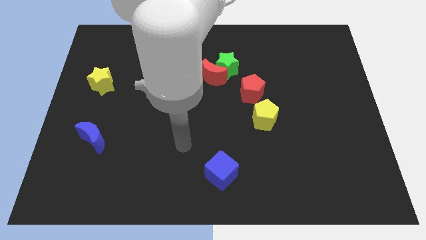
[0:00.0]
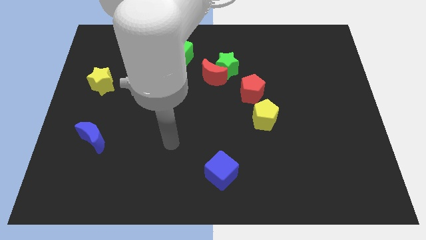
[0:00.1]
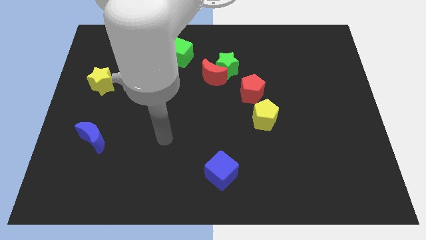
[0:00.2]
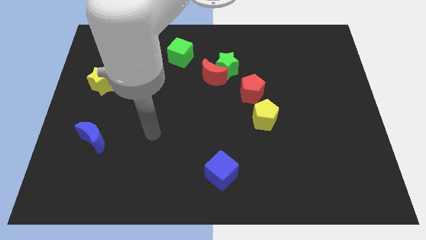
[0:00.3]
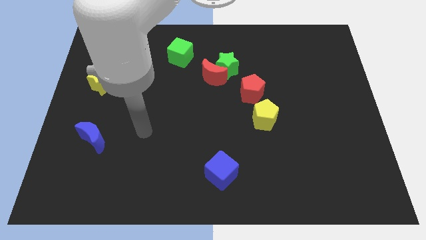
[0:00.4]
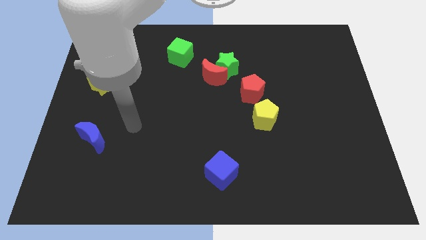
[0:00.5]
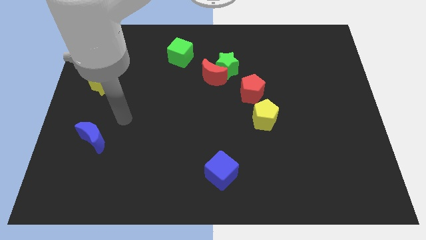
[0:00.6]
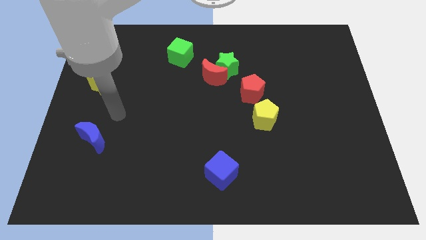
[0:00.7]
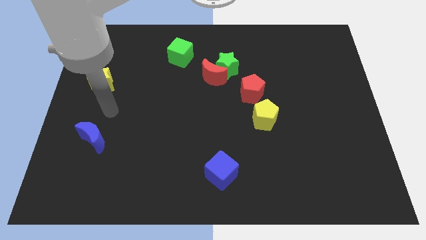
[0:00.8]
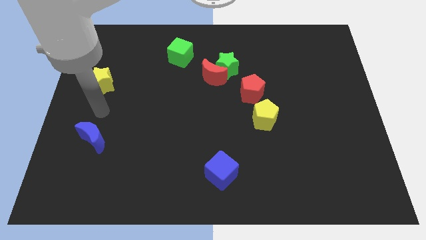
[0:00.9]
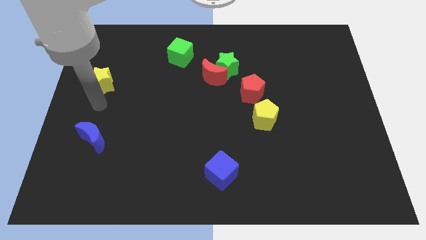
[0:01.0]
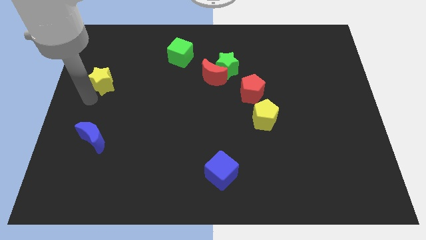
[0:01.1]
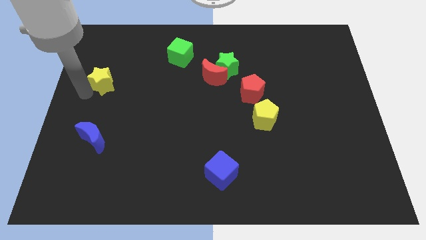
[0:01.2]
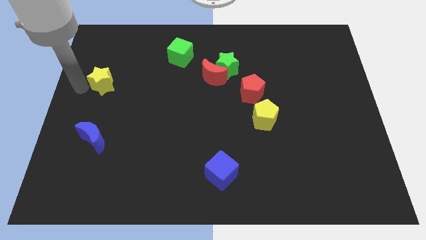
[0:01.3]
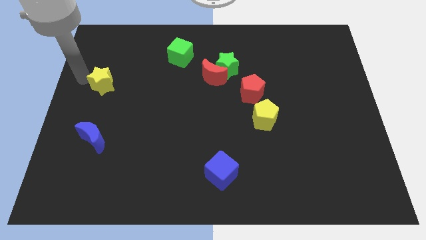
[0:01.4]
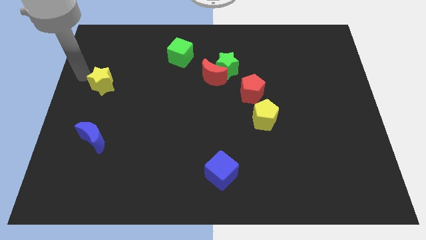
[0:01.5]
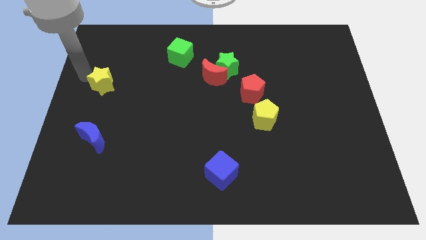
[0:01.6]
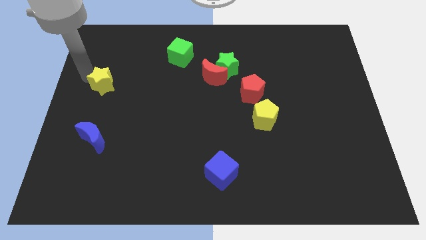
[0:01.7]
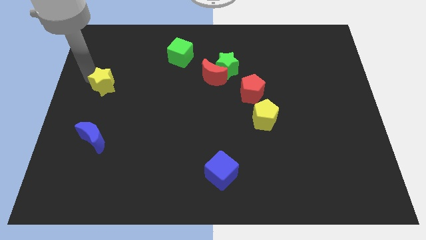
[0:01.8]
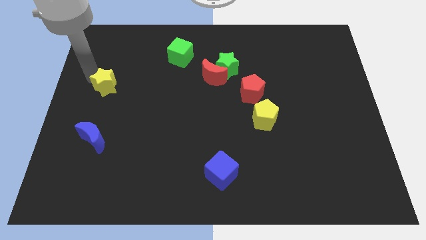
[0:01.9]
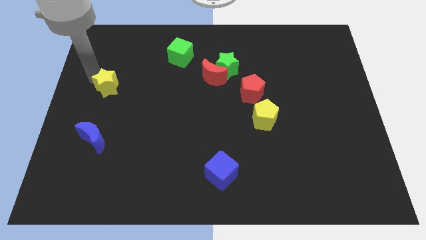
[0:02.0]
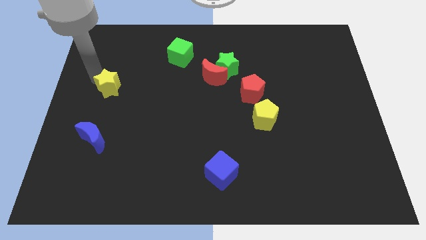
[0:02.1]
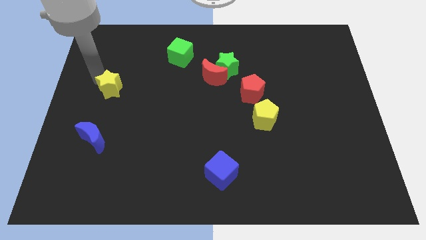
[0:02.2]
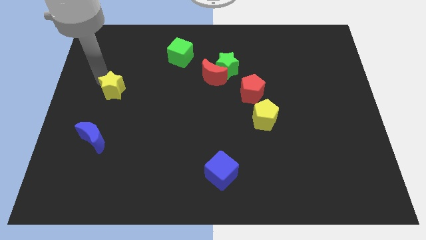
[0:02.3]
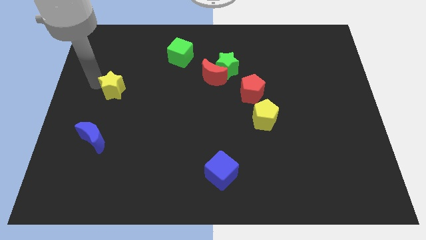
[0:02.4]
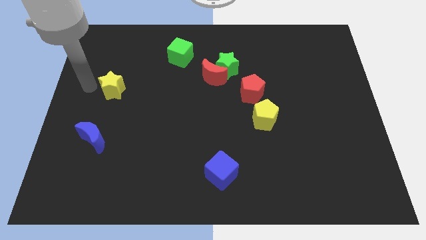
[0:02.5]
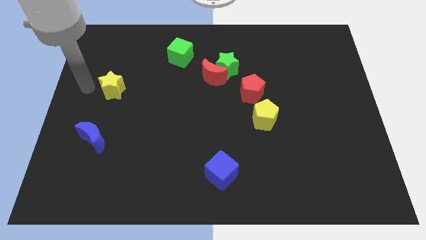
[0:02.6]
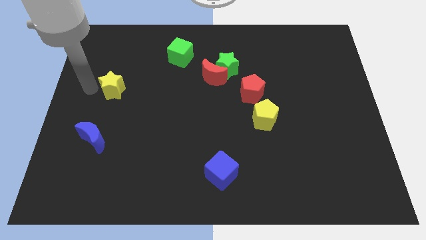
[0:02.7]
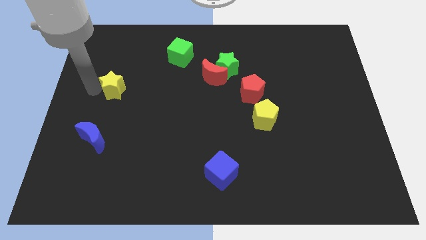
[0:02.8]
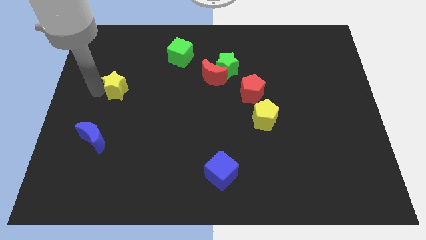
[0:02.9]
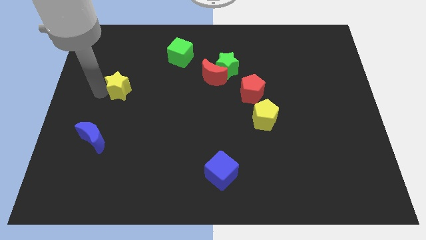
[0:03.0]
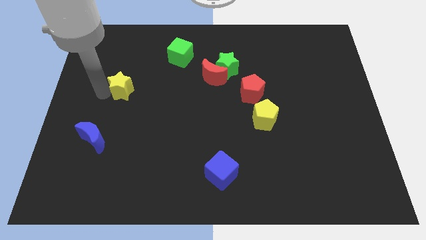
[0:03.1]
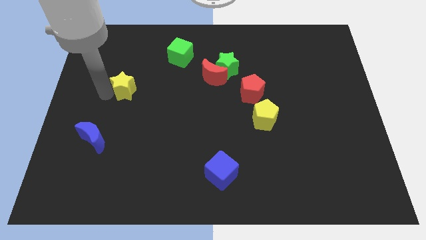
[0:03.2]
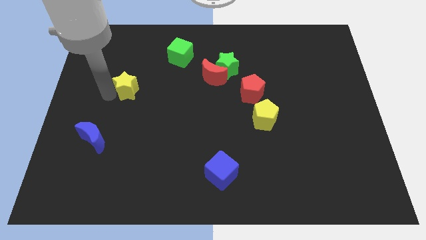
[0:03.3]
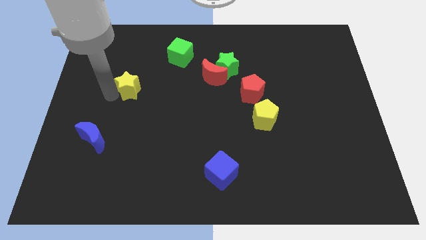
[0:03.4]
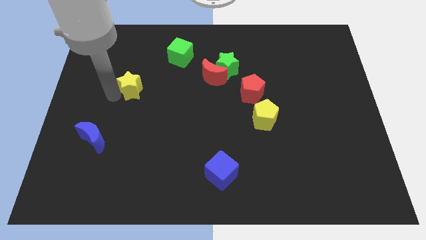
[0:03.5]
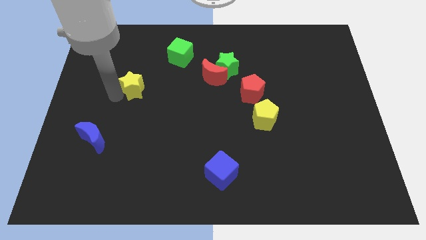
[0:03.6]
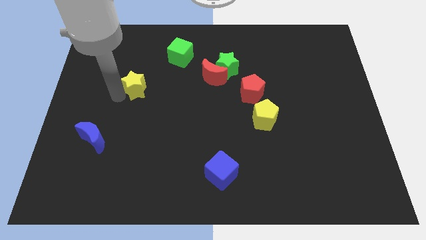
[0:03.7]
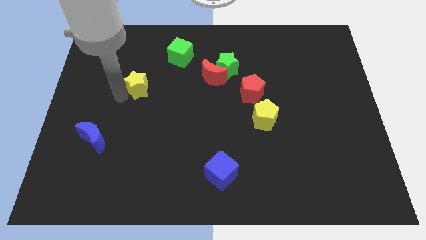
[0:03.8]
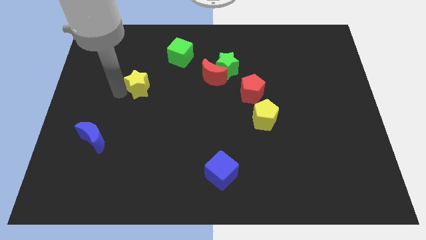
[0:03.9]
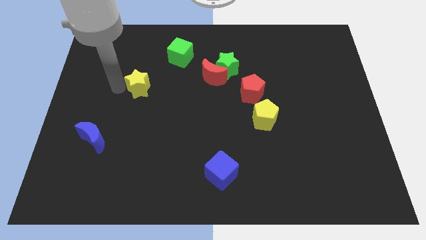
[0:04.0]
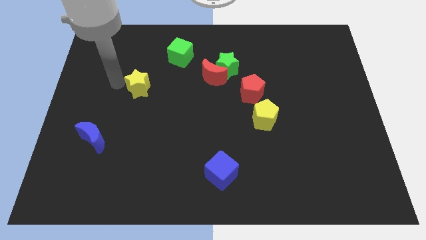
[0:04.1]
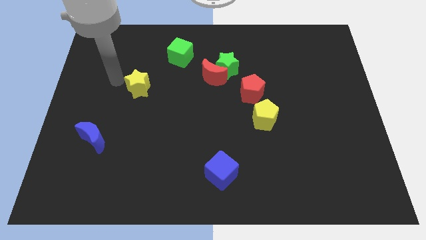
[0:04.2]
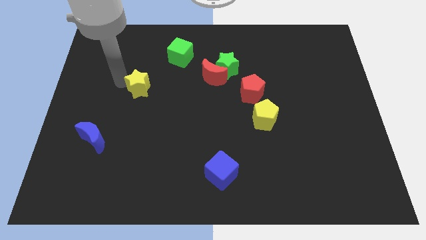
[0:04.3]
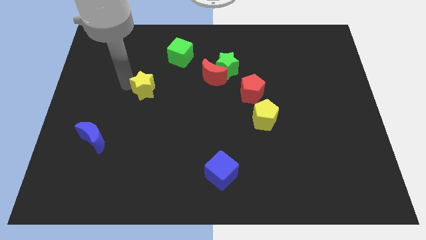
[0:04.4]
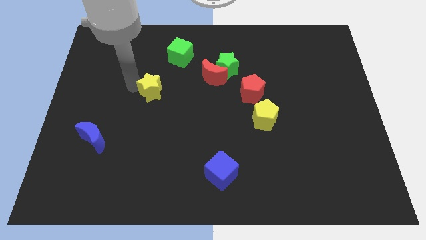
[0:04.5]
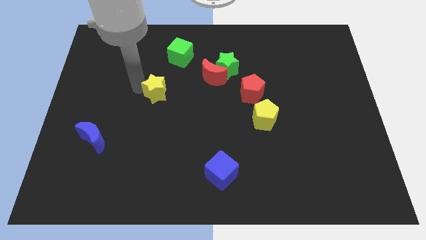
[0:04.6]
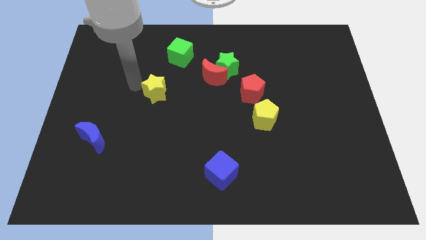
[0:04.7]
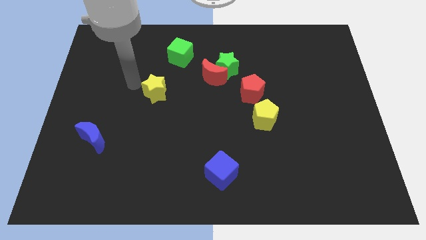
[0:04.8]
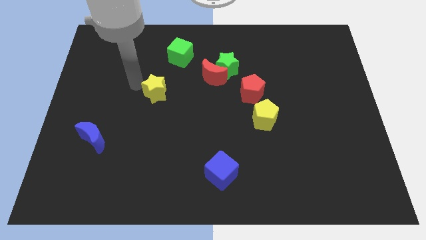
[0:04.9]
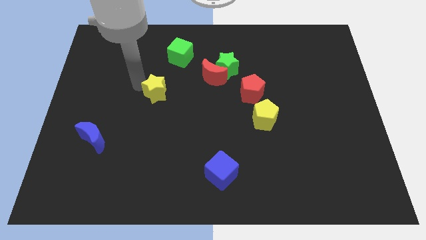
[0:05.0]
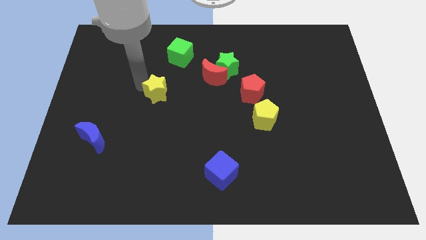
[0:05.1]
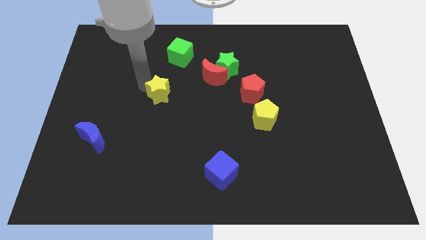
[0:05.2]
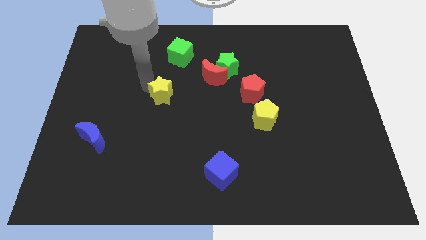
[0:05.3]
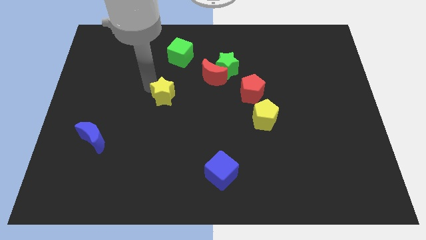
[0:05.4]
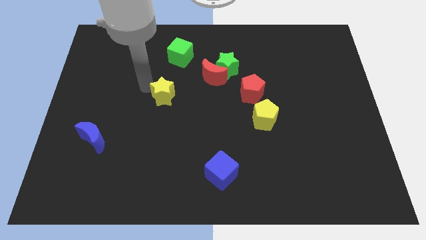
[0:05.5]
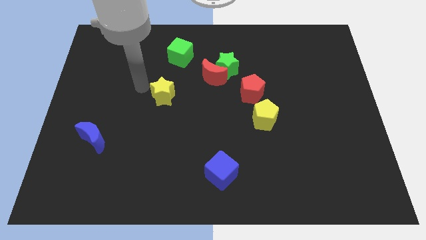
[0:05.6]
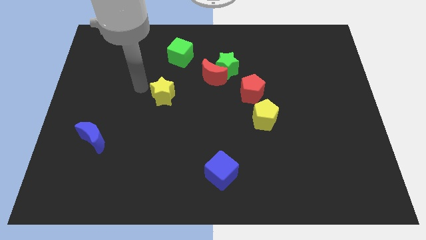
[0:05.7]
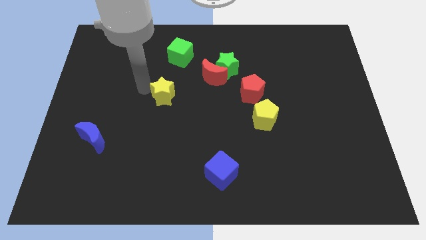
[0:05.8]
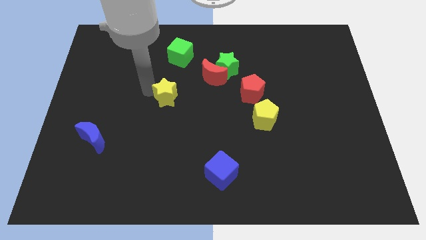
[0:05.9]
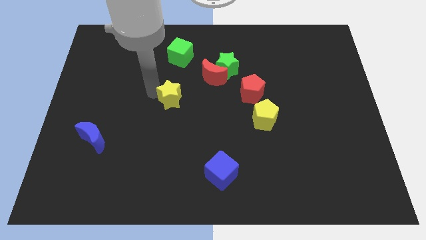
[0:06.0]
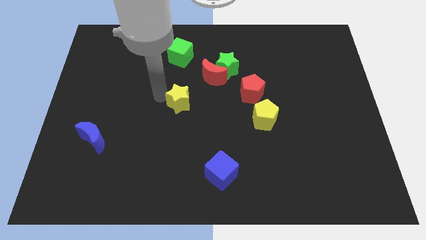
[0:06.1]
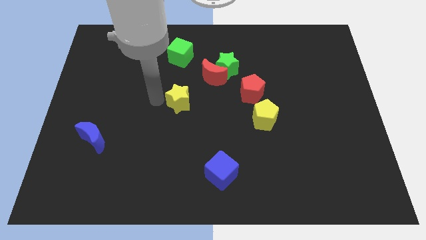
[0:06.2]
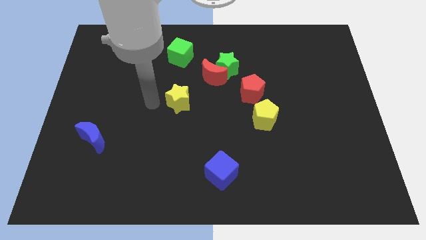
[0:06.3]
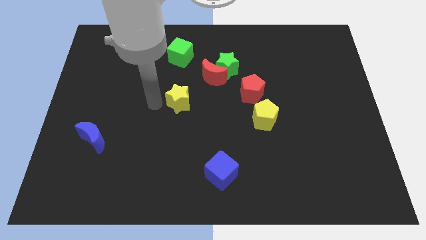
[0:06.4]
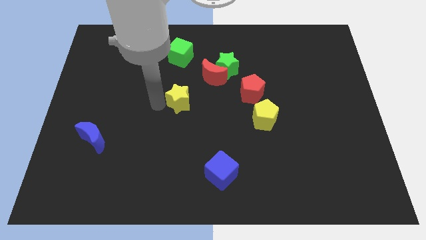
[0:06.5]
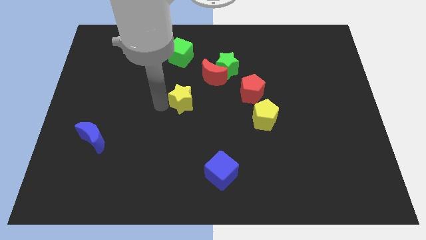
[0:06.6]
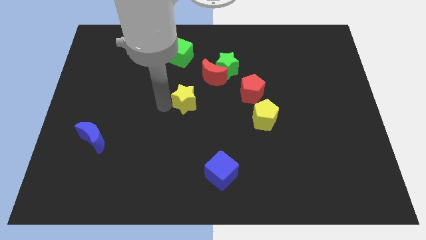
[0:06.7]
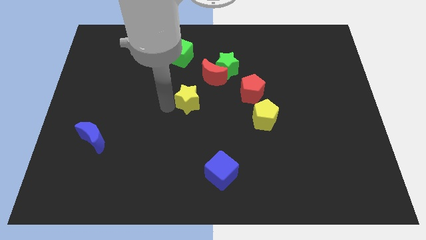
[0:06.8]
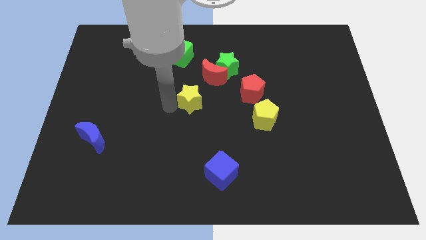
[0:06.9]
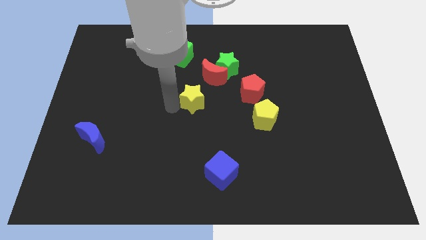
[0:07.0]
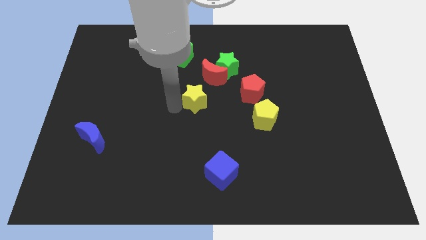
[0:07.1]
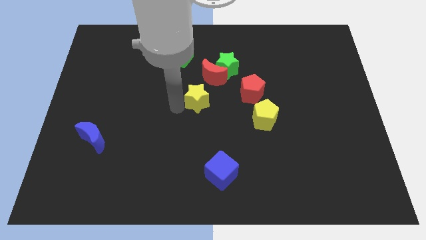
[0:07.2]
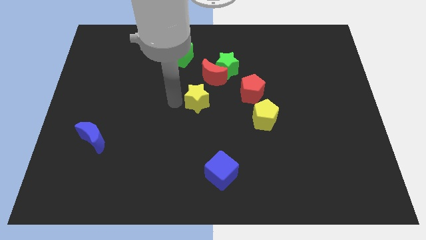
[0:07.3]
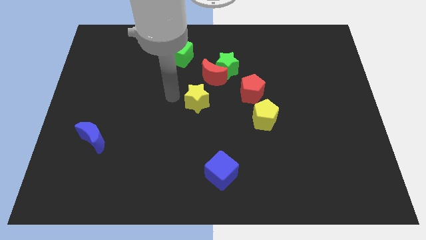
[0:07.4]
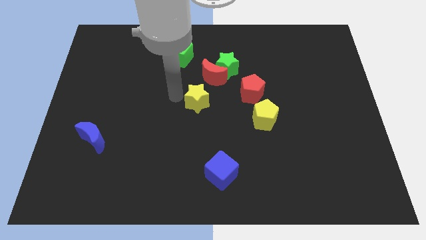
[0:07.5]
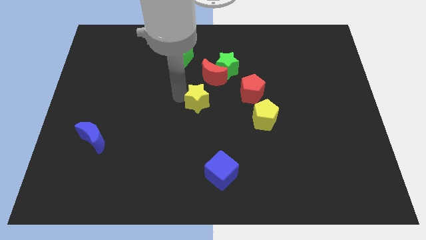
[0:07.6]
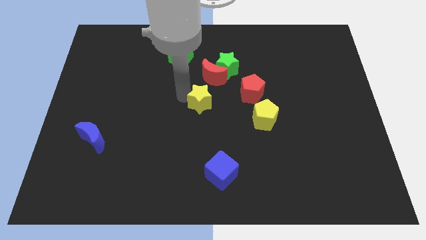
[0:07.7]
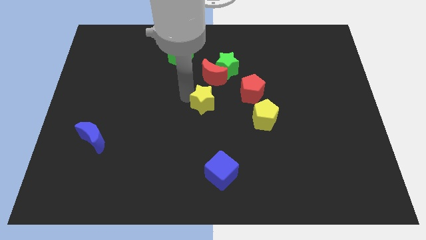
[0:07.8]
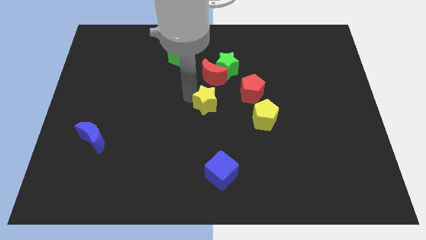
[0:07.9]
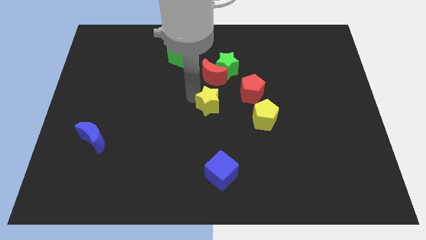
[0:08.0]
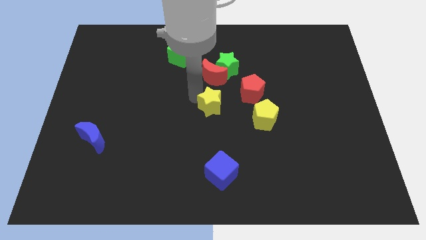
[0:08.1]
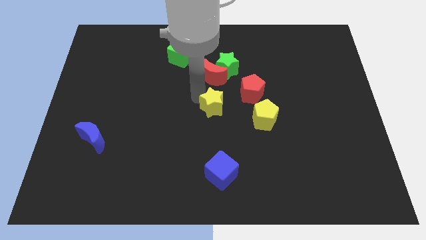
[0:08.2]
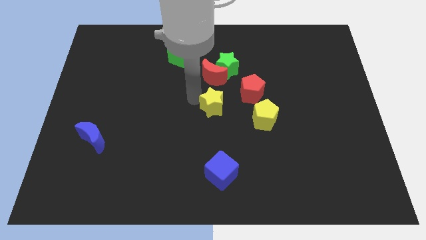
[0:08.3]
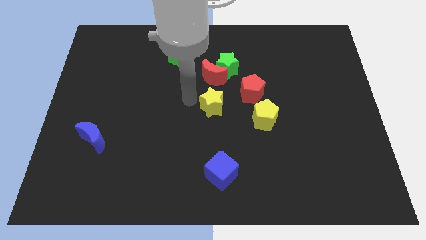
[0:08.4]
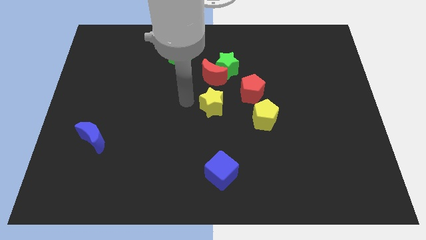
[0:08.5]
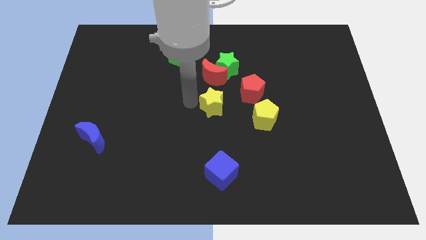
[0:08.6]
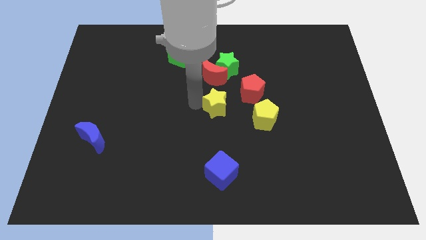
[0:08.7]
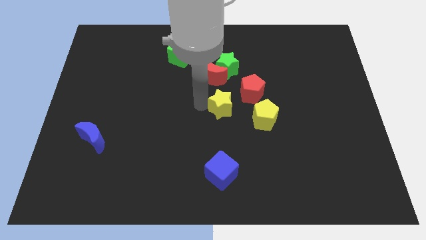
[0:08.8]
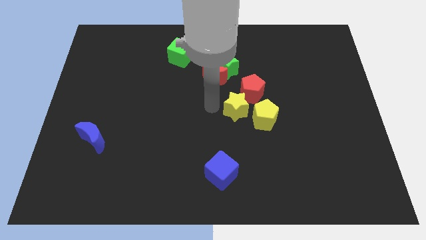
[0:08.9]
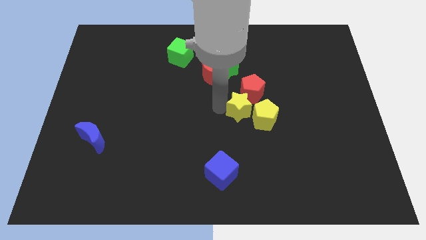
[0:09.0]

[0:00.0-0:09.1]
put the yellow star close to the yellow pentagon
